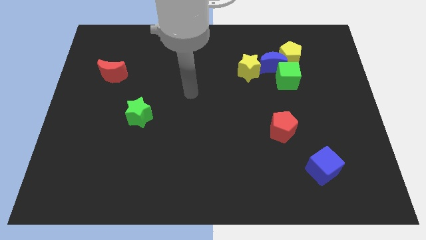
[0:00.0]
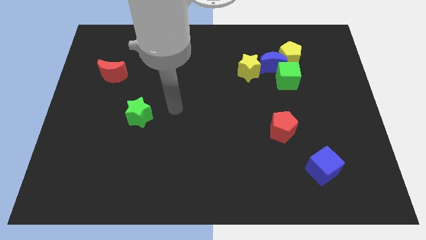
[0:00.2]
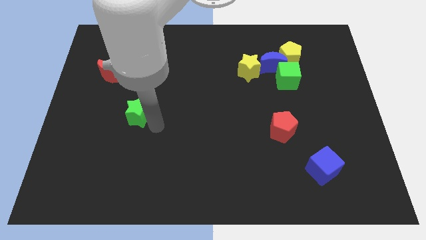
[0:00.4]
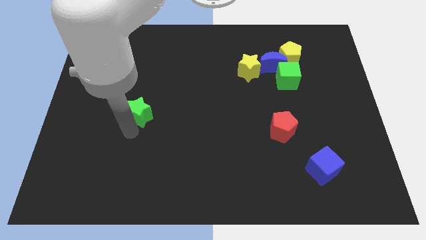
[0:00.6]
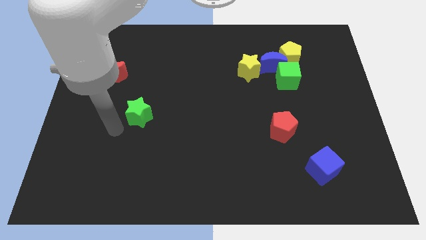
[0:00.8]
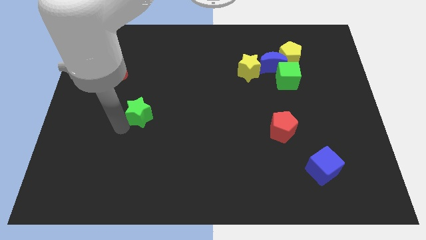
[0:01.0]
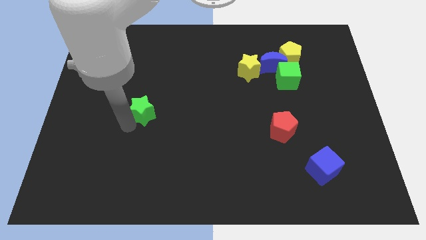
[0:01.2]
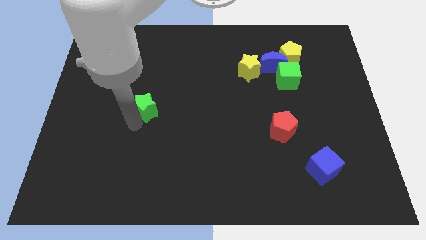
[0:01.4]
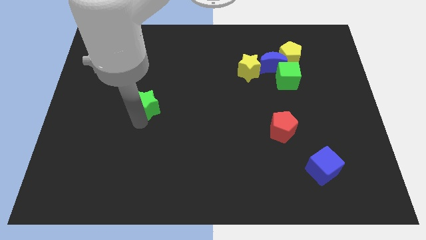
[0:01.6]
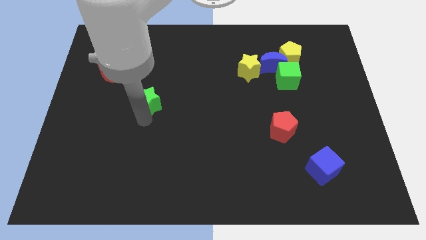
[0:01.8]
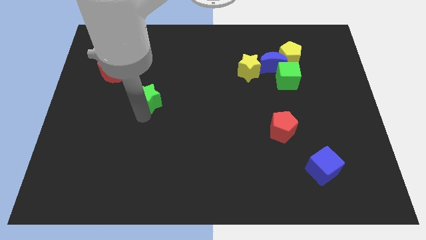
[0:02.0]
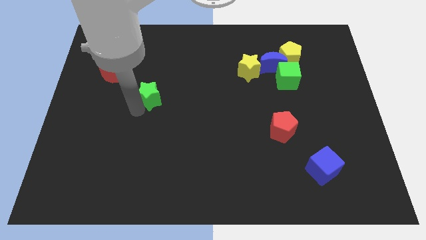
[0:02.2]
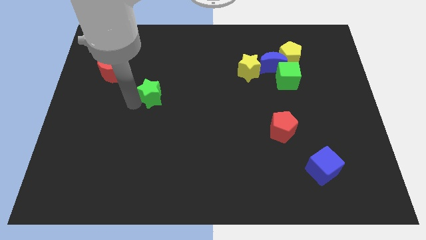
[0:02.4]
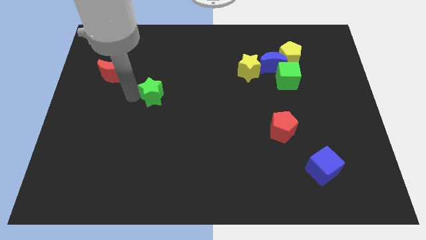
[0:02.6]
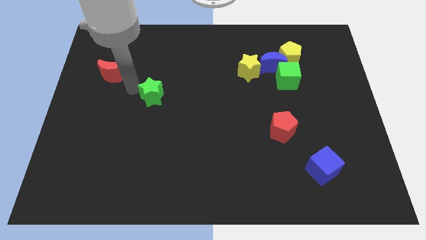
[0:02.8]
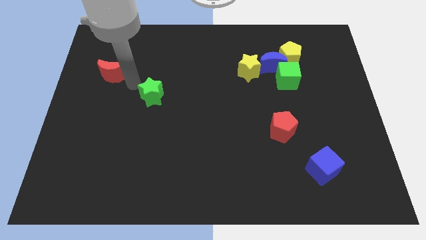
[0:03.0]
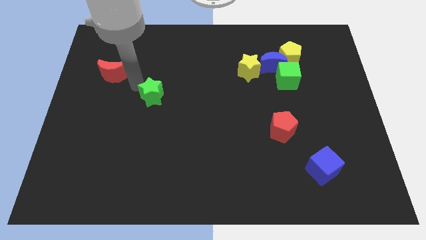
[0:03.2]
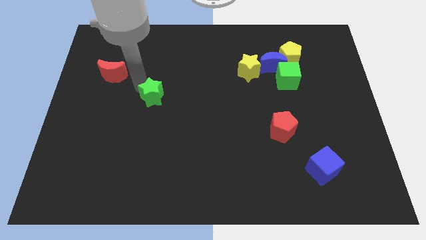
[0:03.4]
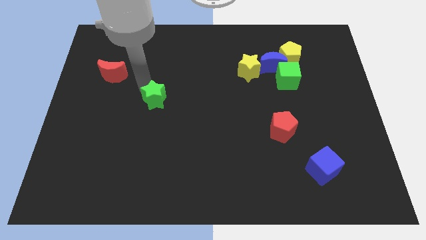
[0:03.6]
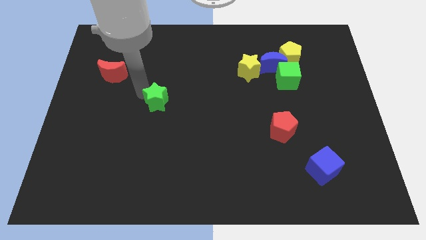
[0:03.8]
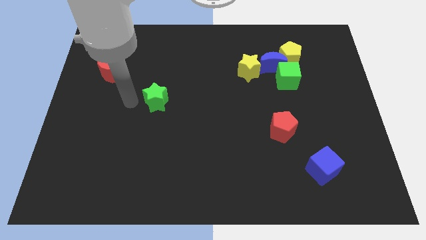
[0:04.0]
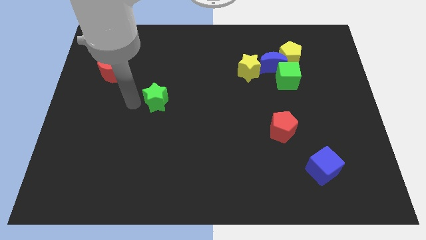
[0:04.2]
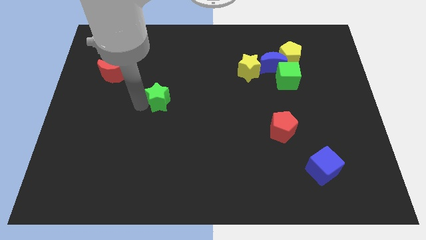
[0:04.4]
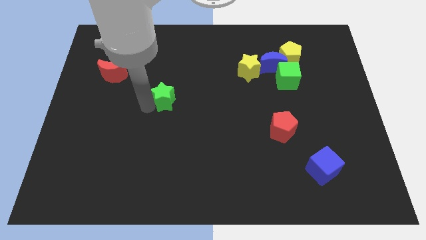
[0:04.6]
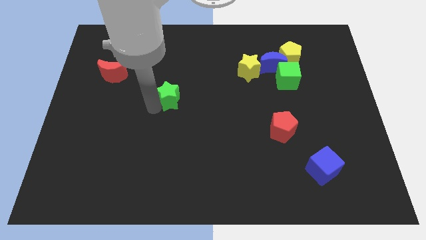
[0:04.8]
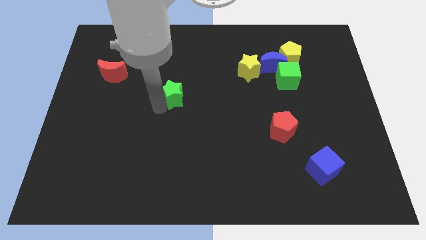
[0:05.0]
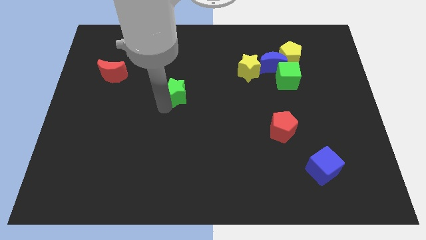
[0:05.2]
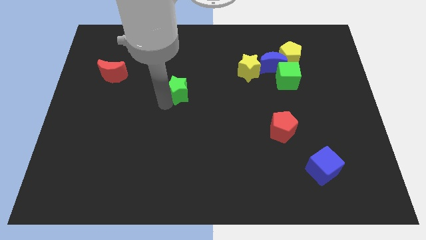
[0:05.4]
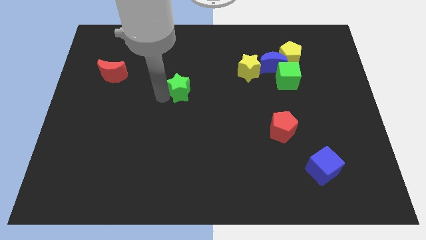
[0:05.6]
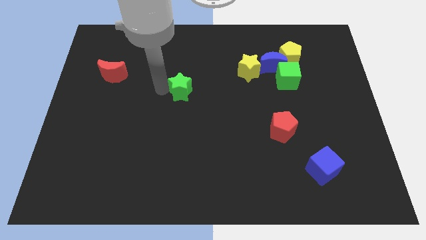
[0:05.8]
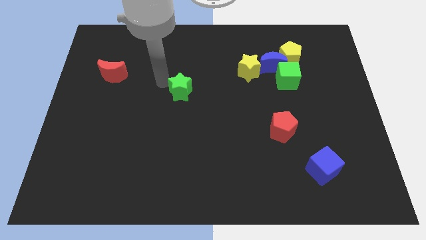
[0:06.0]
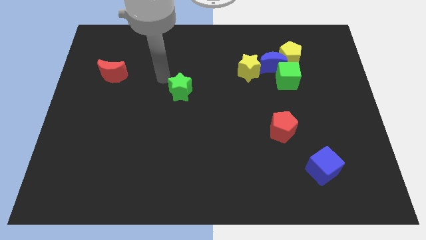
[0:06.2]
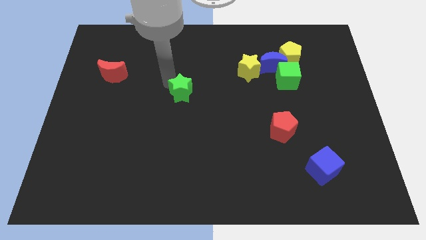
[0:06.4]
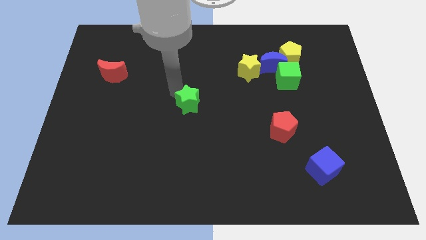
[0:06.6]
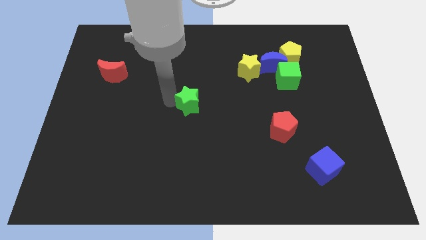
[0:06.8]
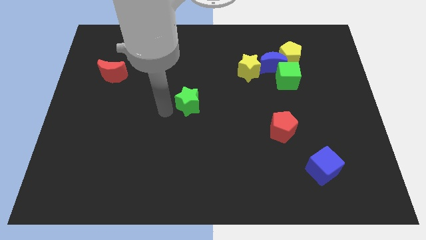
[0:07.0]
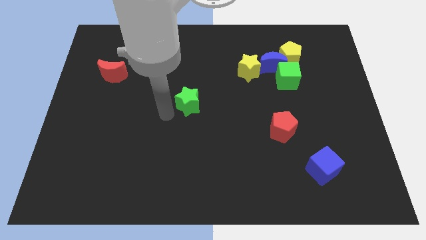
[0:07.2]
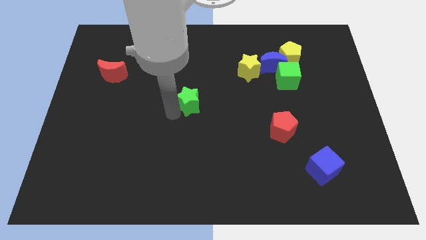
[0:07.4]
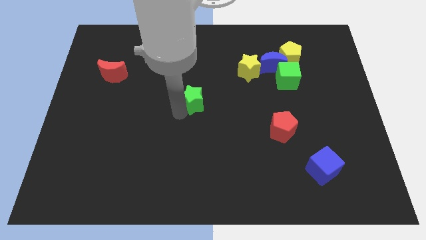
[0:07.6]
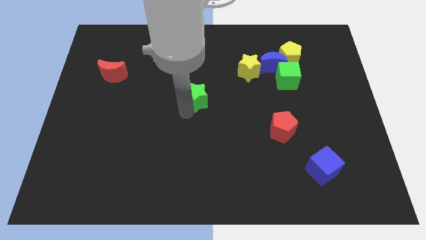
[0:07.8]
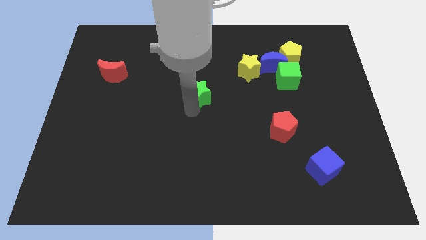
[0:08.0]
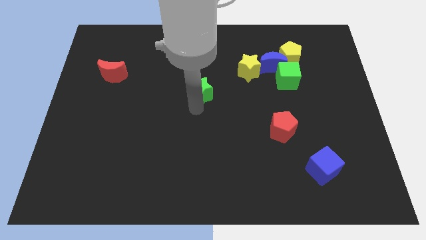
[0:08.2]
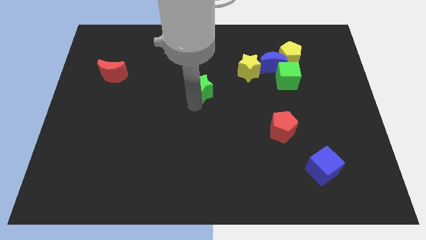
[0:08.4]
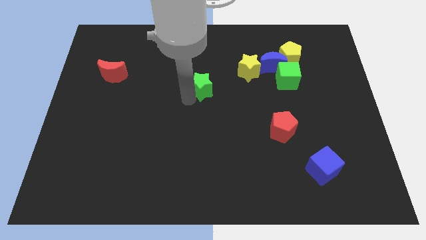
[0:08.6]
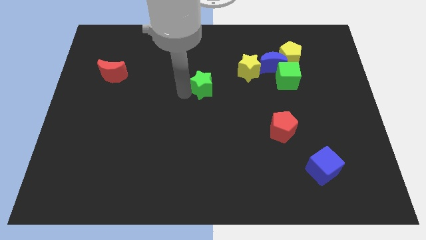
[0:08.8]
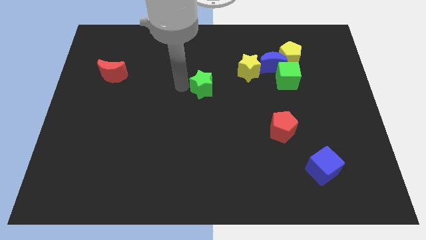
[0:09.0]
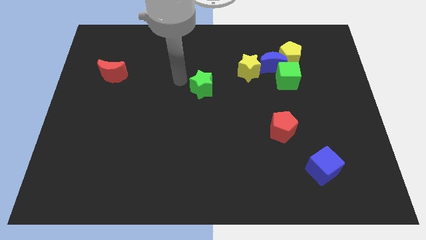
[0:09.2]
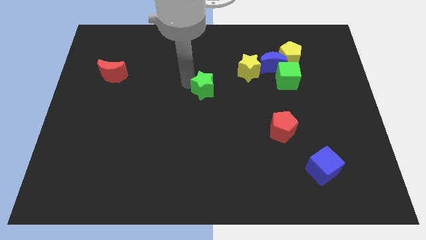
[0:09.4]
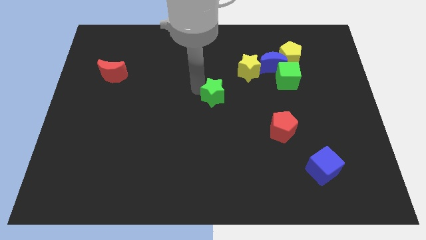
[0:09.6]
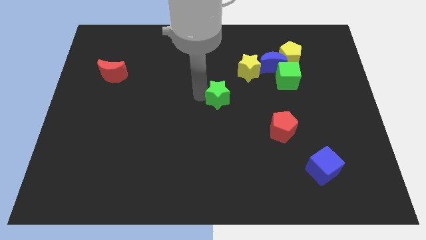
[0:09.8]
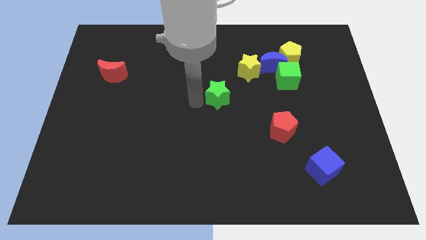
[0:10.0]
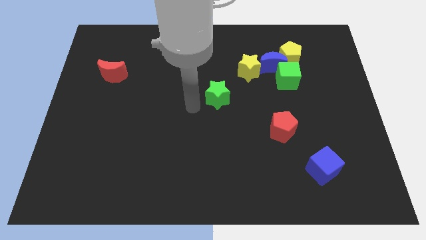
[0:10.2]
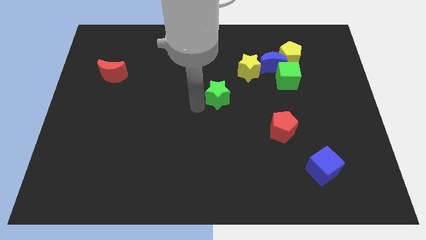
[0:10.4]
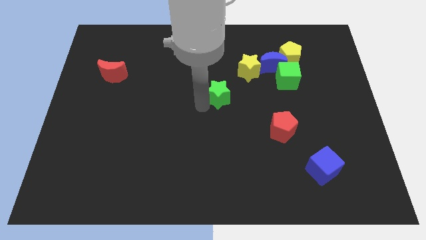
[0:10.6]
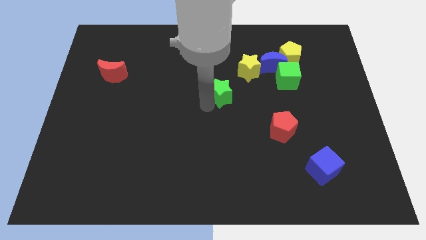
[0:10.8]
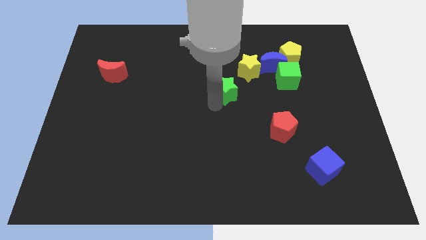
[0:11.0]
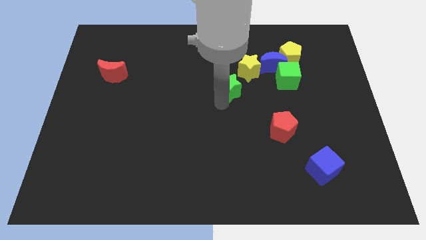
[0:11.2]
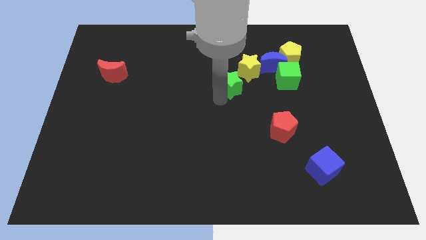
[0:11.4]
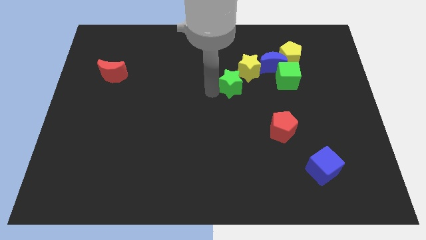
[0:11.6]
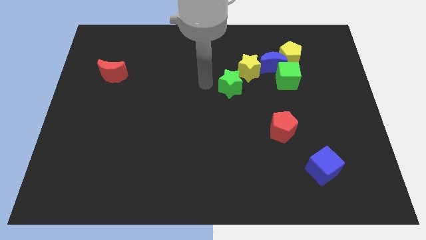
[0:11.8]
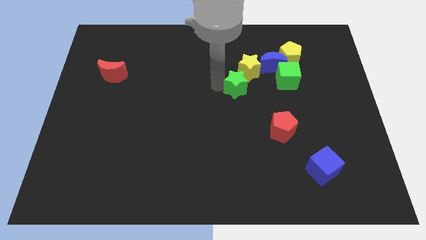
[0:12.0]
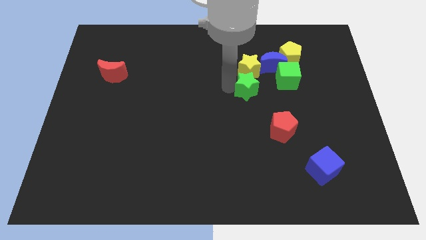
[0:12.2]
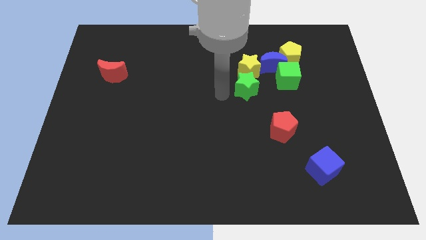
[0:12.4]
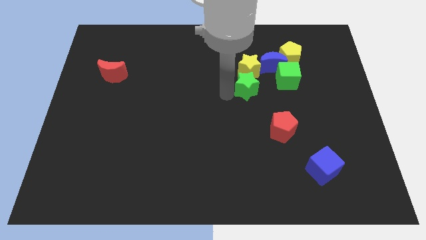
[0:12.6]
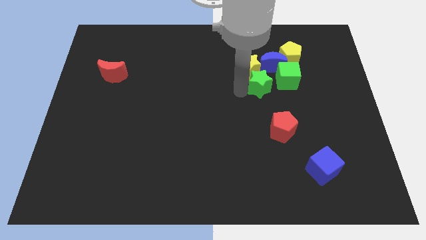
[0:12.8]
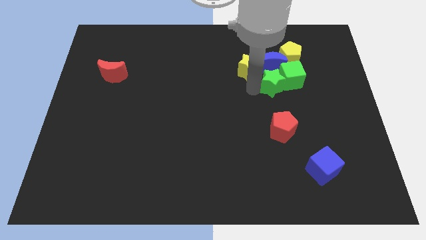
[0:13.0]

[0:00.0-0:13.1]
push the green star next to the green cube

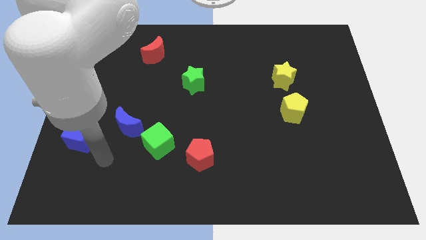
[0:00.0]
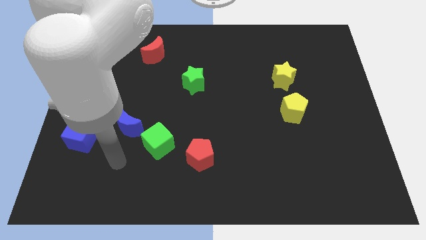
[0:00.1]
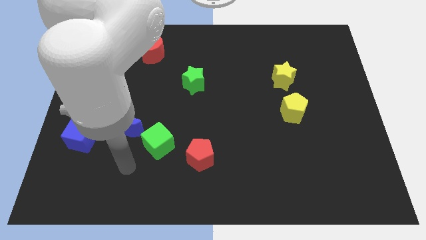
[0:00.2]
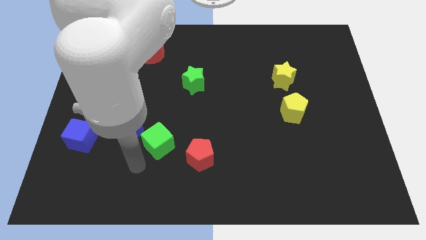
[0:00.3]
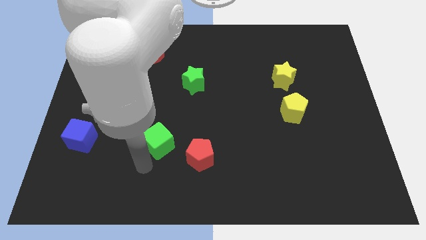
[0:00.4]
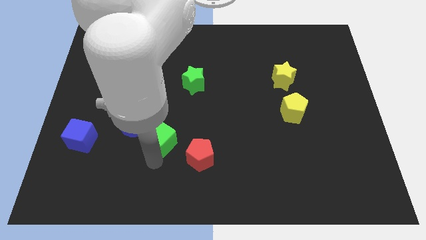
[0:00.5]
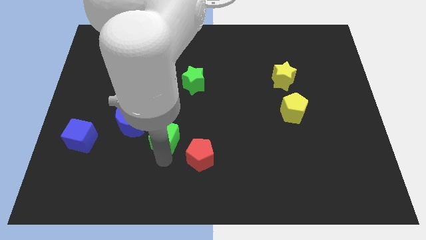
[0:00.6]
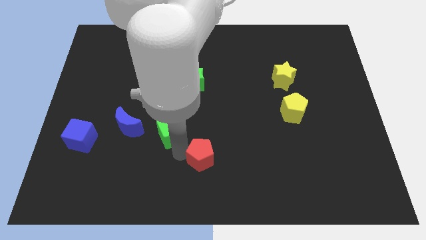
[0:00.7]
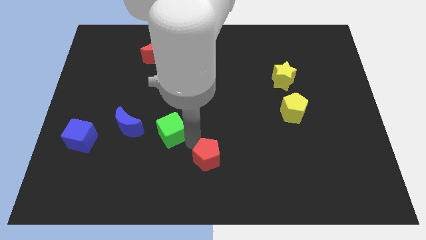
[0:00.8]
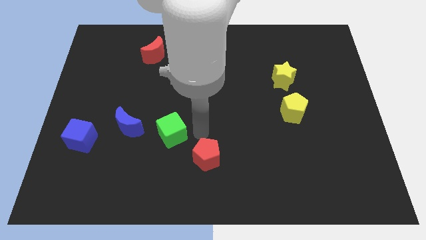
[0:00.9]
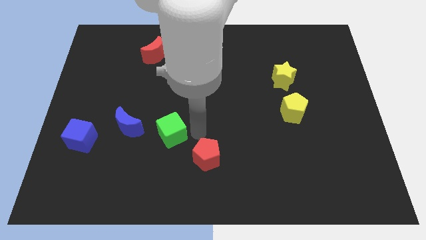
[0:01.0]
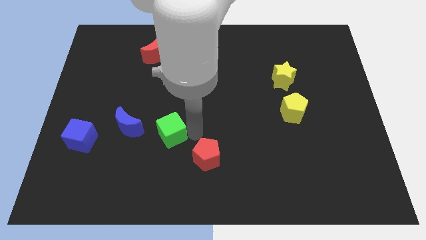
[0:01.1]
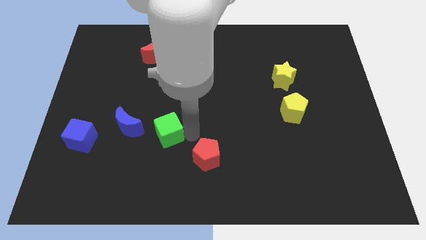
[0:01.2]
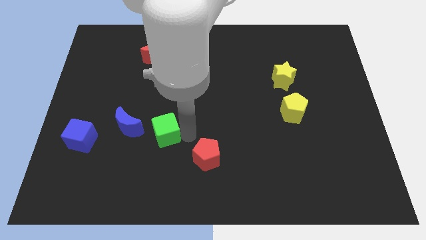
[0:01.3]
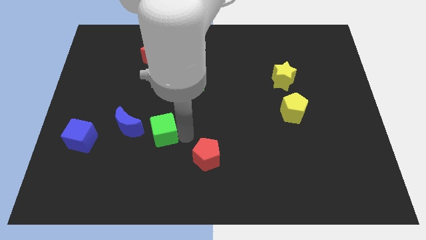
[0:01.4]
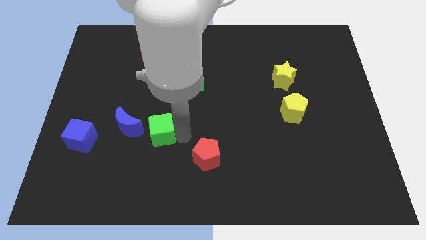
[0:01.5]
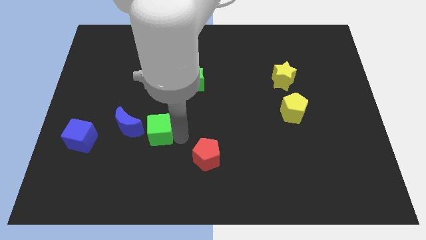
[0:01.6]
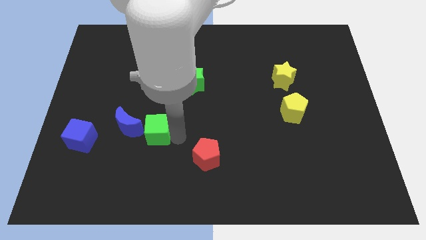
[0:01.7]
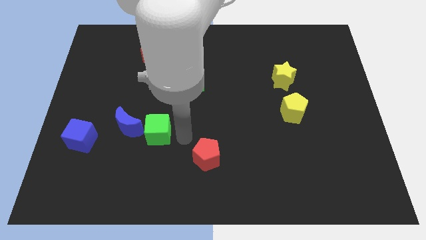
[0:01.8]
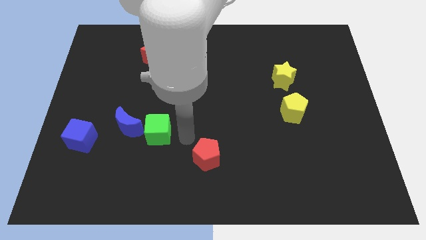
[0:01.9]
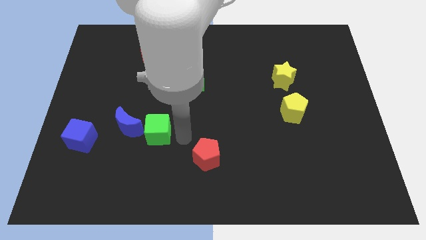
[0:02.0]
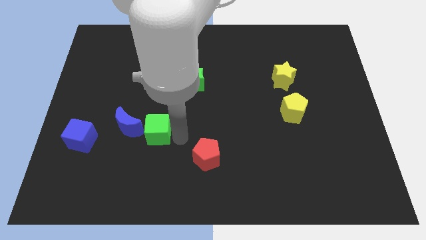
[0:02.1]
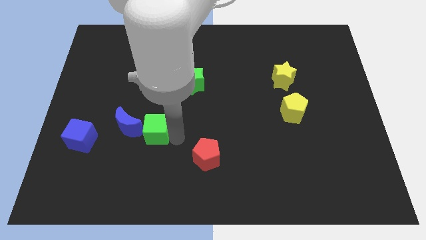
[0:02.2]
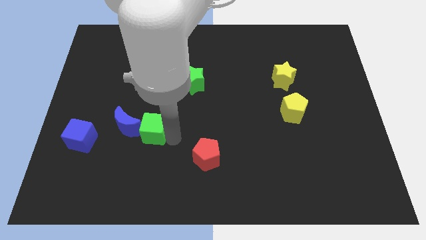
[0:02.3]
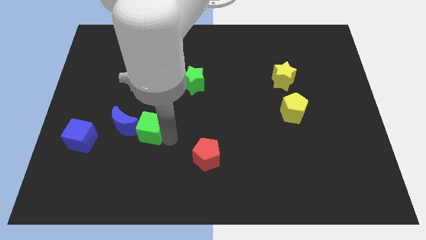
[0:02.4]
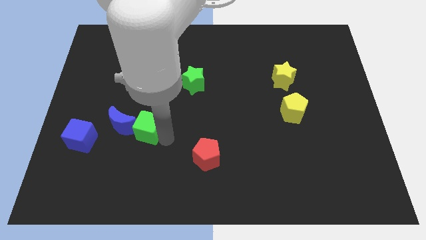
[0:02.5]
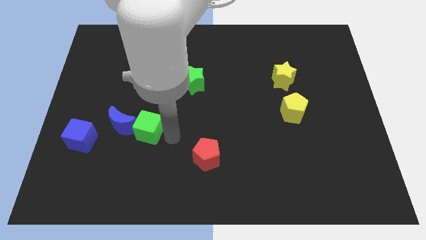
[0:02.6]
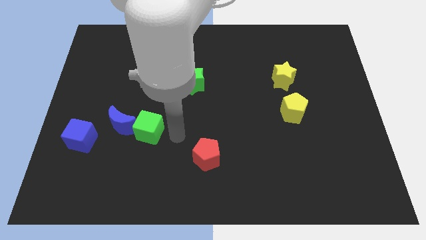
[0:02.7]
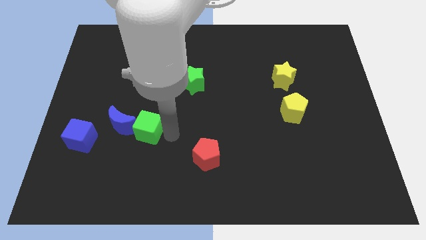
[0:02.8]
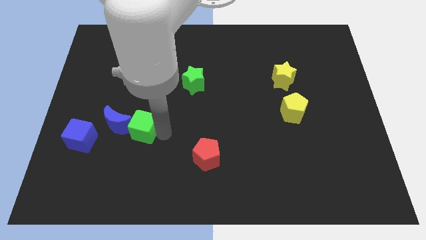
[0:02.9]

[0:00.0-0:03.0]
push the green cube to the blue moon
